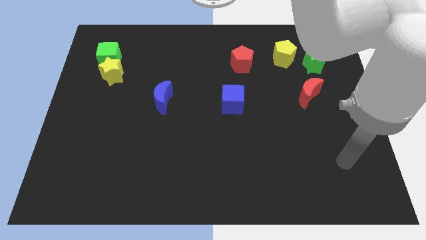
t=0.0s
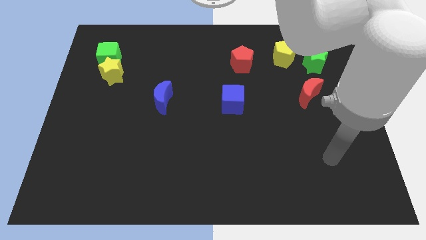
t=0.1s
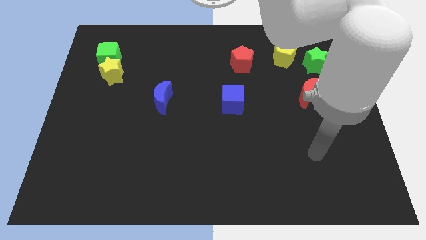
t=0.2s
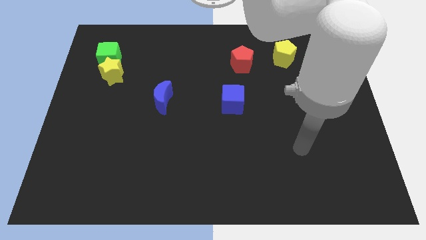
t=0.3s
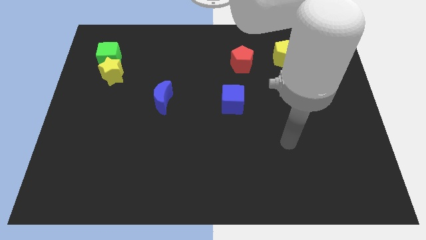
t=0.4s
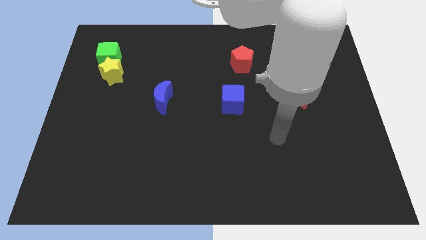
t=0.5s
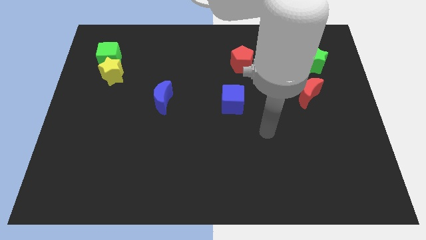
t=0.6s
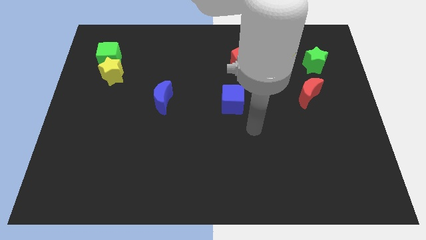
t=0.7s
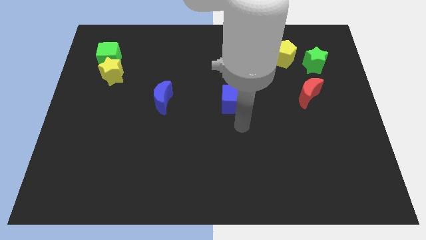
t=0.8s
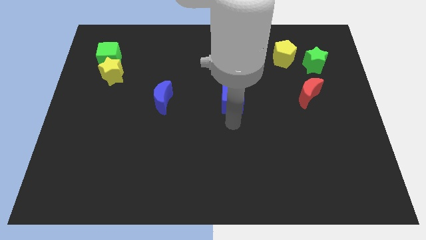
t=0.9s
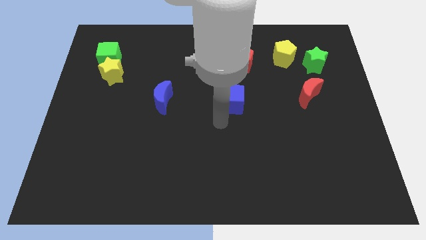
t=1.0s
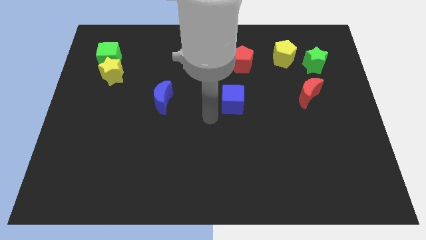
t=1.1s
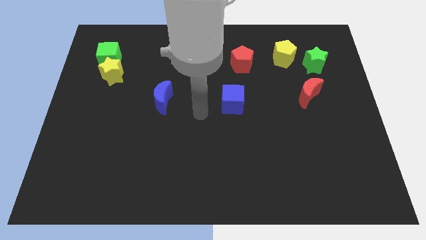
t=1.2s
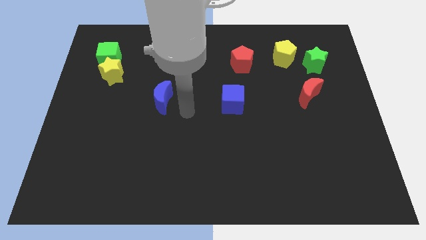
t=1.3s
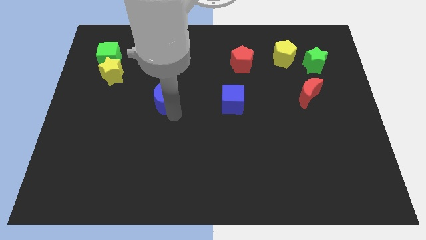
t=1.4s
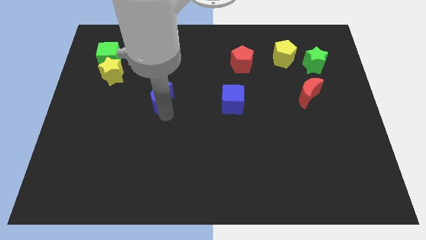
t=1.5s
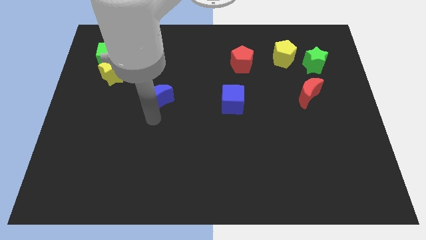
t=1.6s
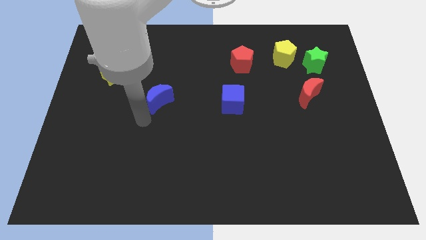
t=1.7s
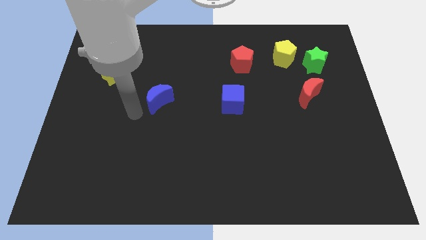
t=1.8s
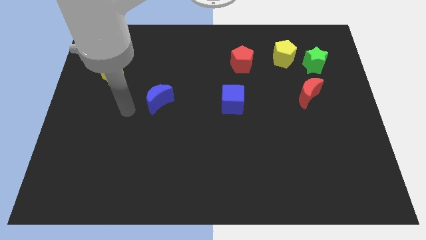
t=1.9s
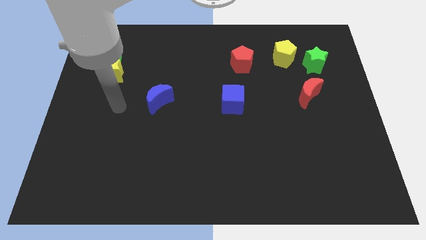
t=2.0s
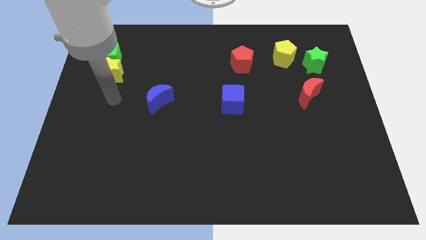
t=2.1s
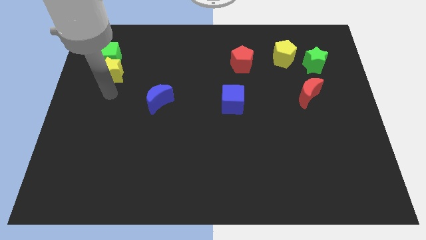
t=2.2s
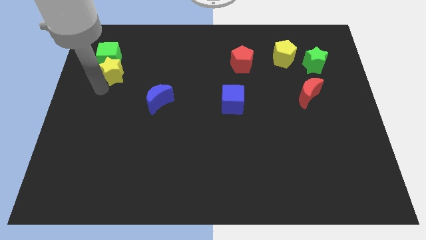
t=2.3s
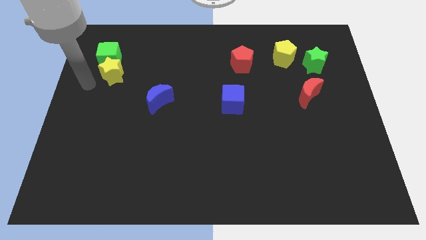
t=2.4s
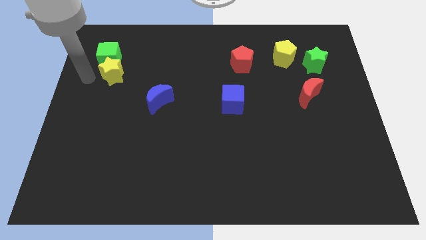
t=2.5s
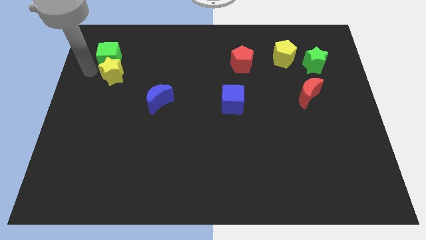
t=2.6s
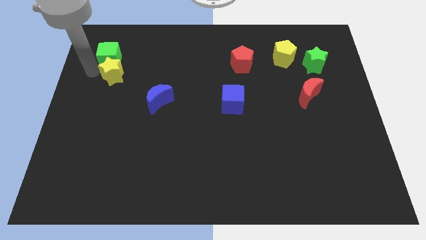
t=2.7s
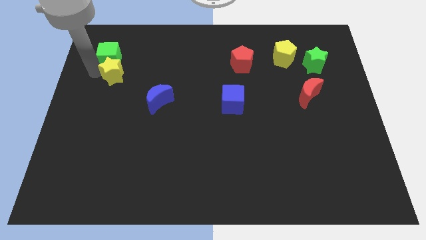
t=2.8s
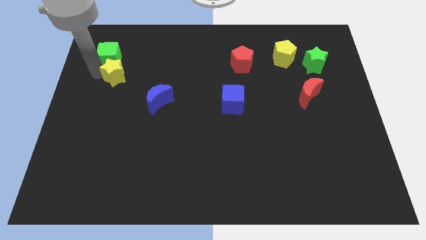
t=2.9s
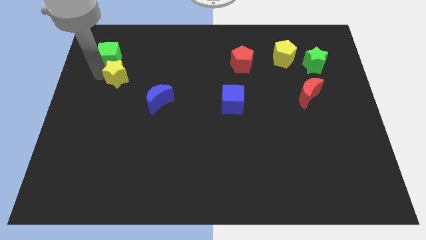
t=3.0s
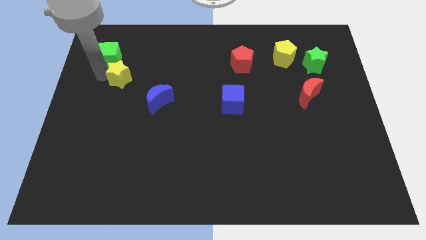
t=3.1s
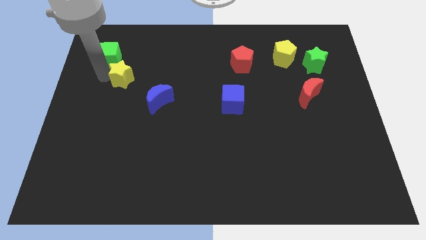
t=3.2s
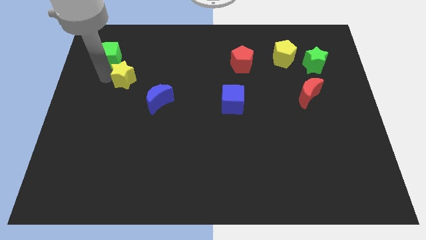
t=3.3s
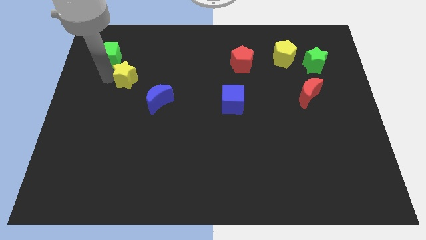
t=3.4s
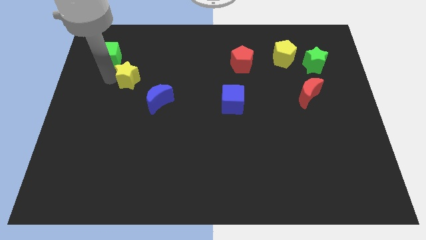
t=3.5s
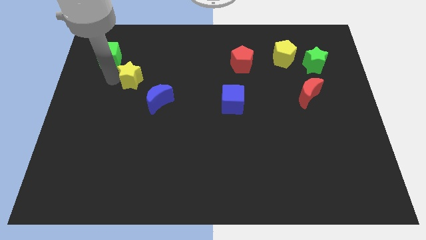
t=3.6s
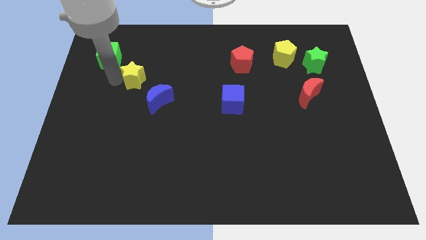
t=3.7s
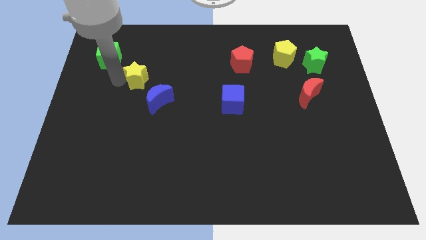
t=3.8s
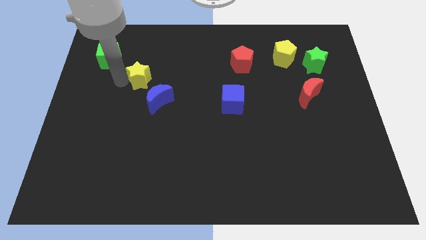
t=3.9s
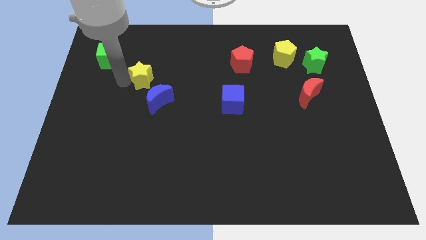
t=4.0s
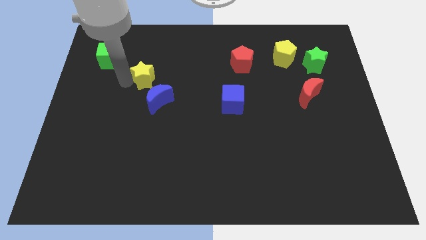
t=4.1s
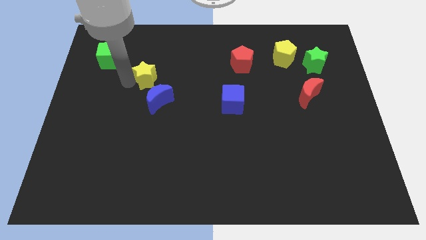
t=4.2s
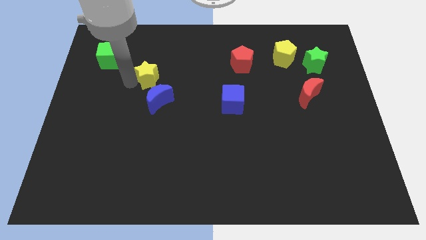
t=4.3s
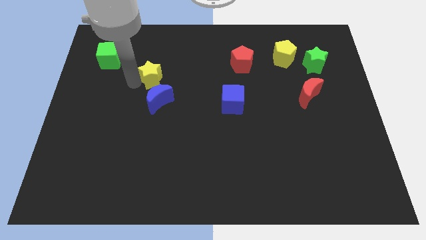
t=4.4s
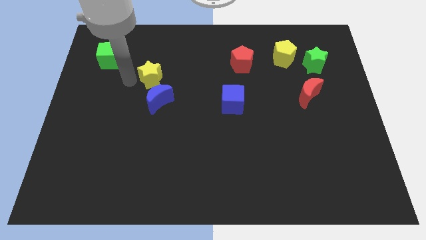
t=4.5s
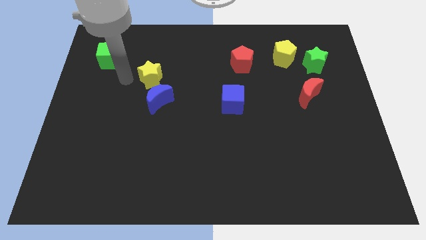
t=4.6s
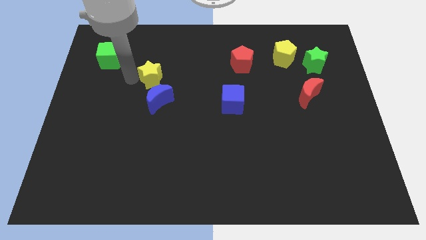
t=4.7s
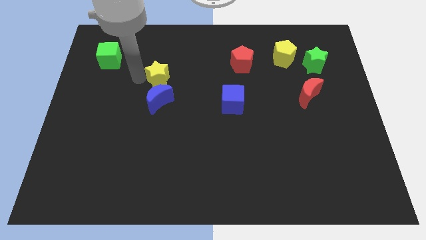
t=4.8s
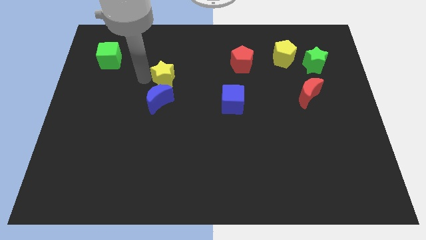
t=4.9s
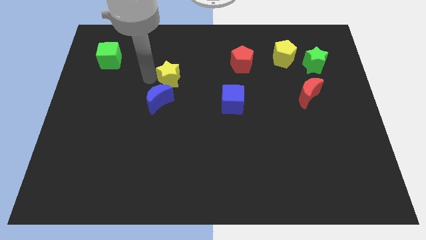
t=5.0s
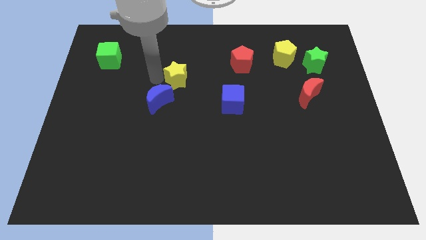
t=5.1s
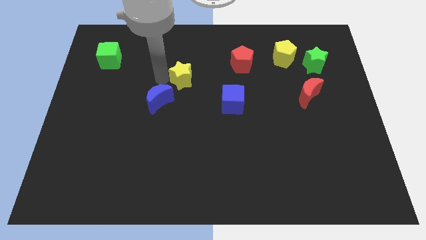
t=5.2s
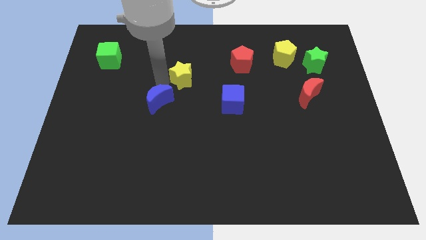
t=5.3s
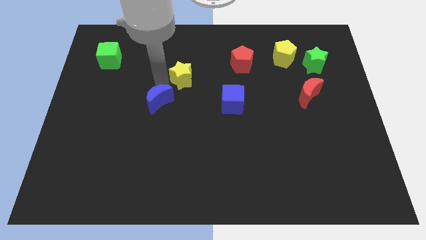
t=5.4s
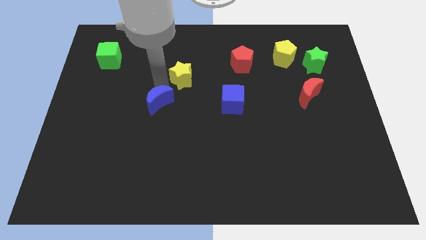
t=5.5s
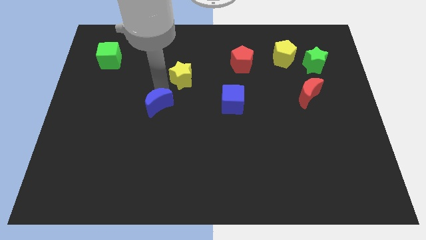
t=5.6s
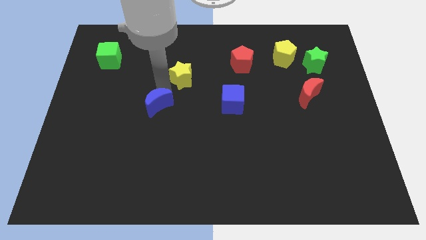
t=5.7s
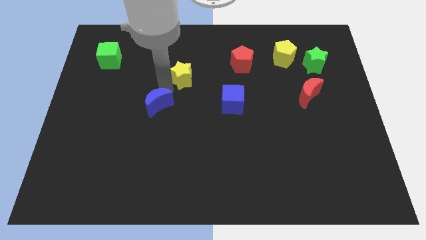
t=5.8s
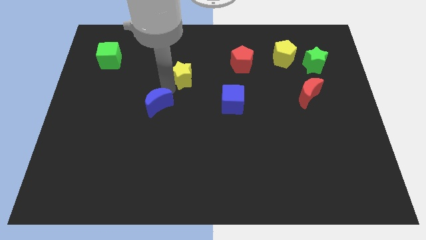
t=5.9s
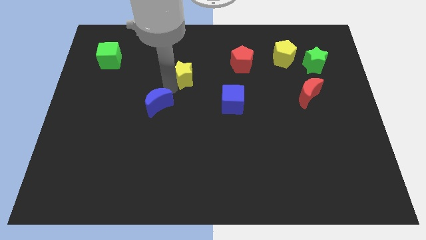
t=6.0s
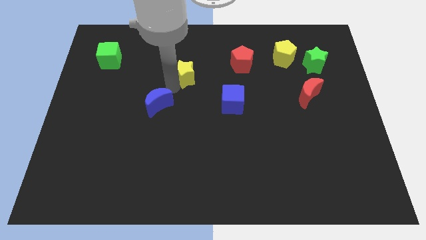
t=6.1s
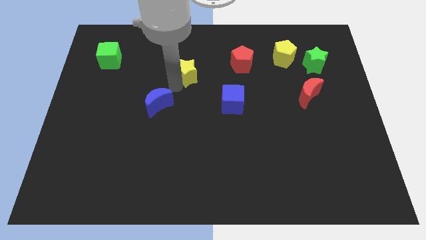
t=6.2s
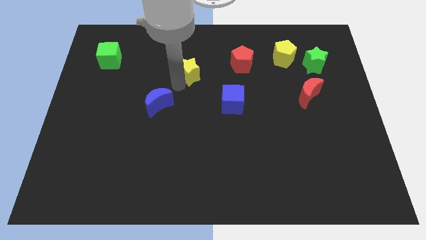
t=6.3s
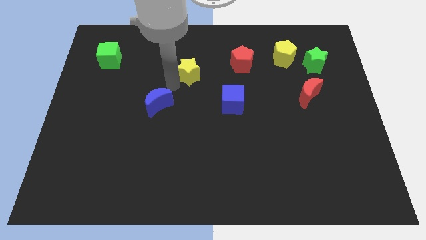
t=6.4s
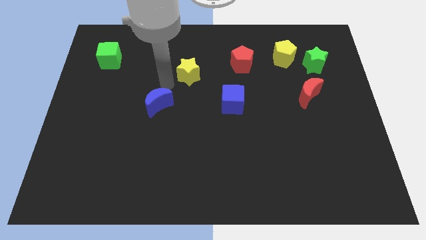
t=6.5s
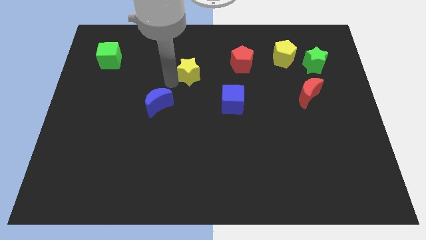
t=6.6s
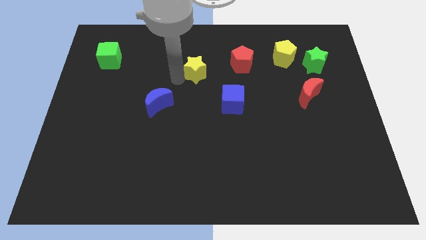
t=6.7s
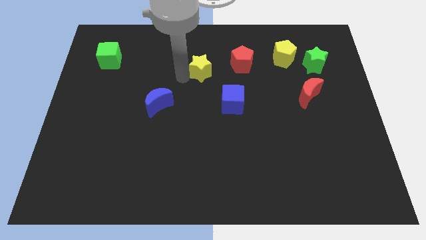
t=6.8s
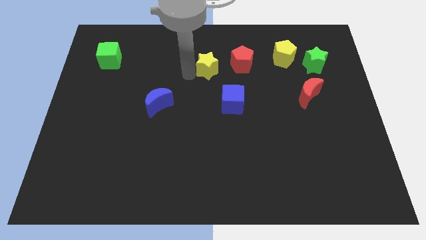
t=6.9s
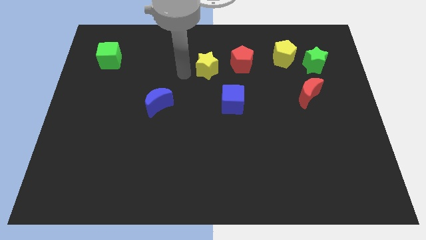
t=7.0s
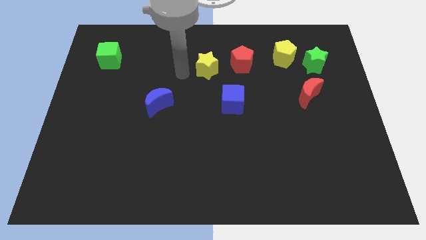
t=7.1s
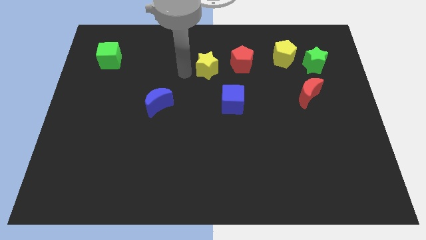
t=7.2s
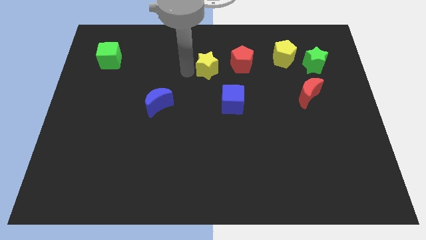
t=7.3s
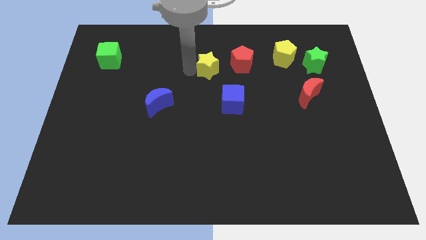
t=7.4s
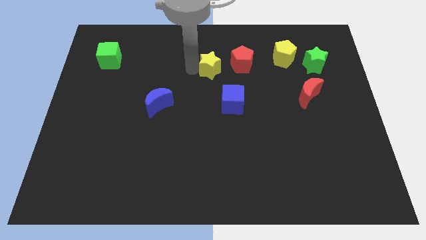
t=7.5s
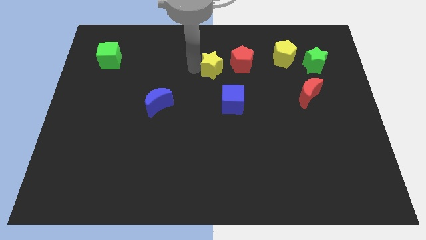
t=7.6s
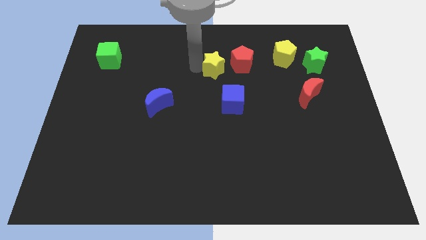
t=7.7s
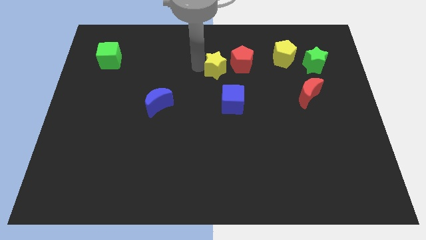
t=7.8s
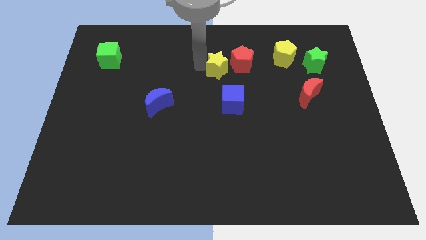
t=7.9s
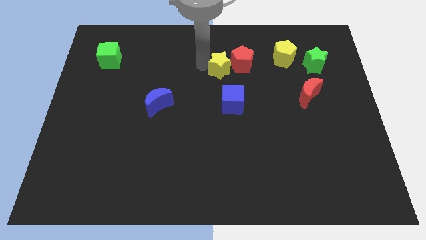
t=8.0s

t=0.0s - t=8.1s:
push the yellow star close to the red pentagon
